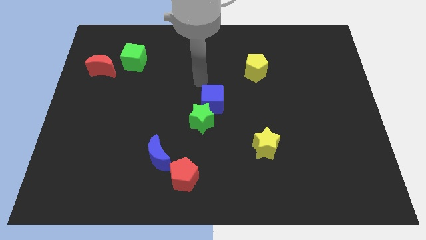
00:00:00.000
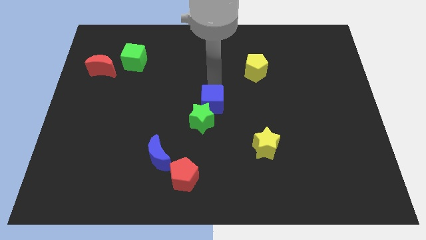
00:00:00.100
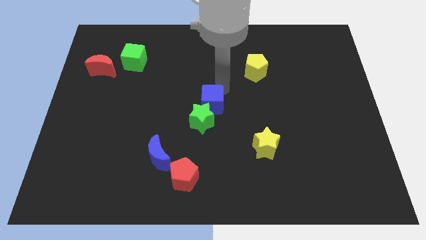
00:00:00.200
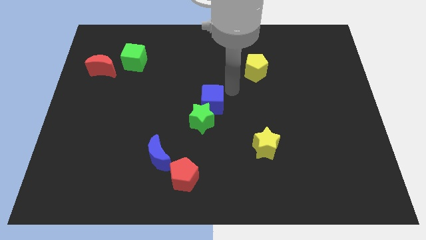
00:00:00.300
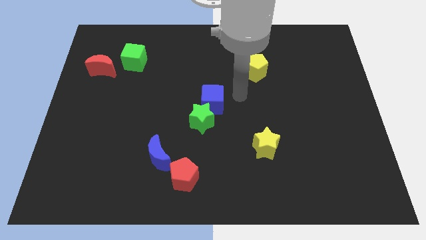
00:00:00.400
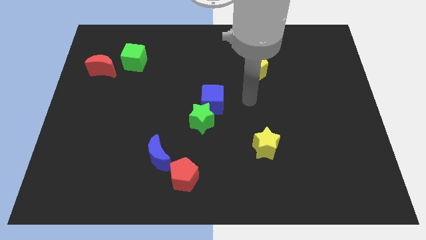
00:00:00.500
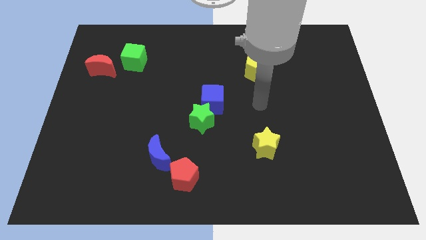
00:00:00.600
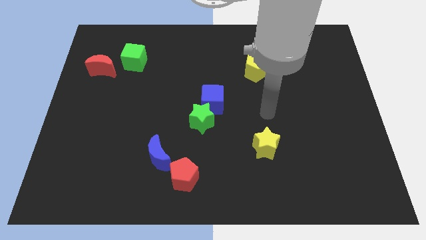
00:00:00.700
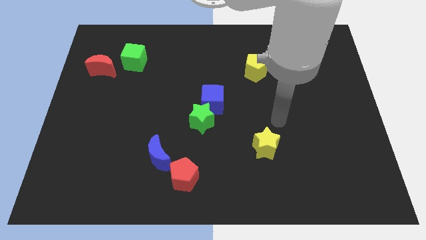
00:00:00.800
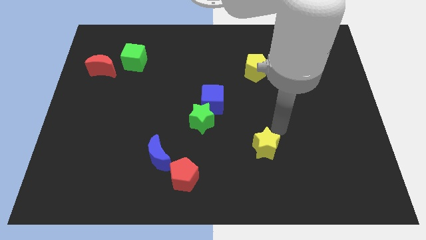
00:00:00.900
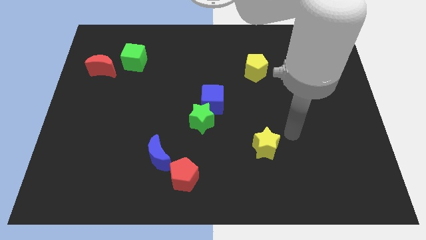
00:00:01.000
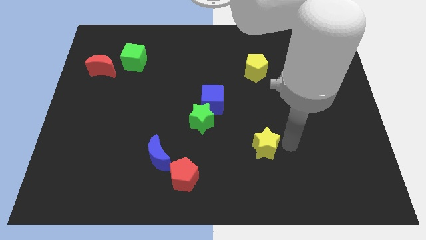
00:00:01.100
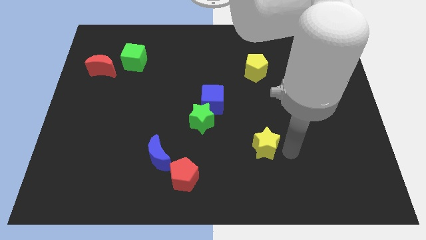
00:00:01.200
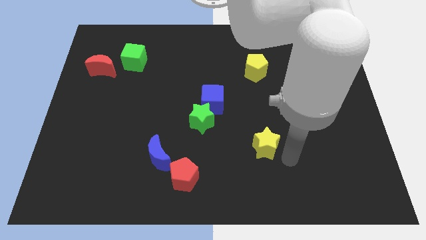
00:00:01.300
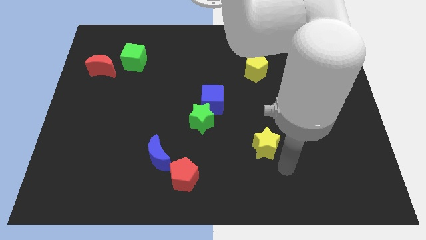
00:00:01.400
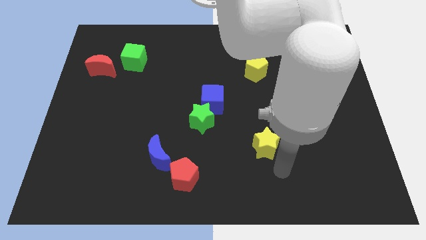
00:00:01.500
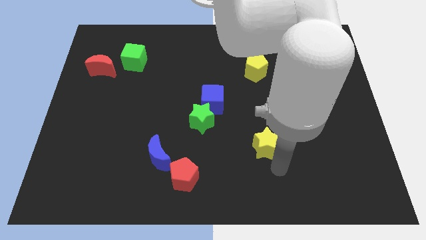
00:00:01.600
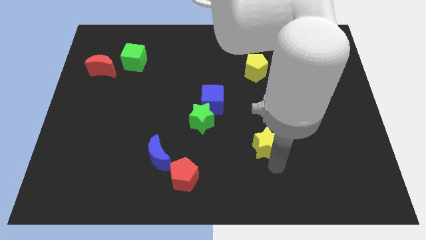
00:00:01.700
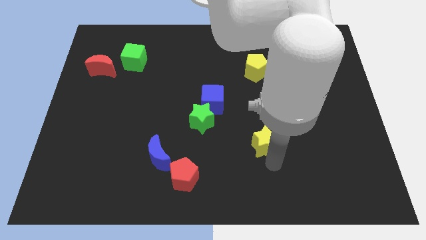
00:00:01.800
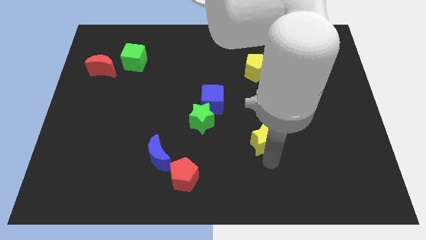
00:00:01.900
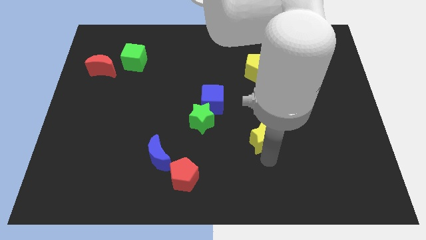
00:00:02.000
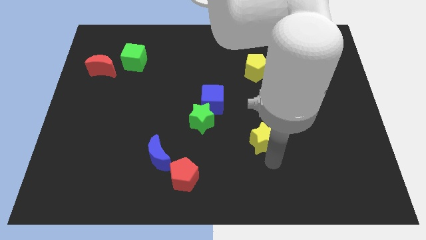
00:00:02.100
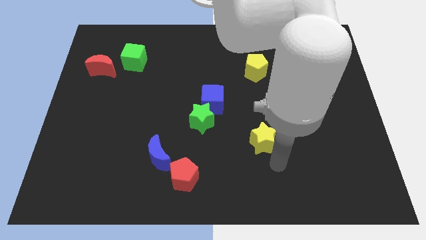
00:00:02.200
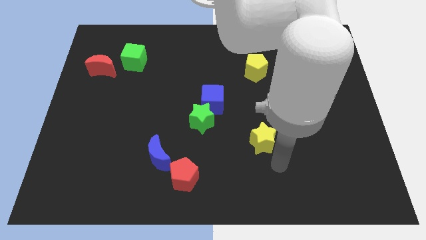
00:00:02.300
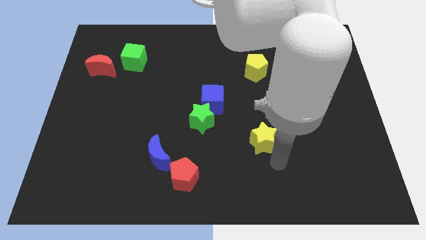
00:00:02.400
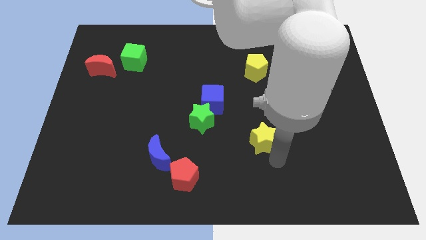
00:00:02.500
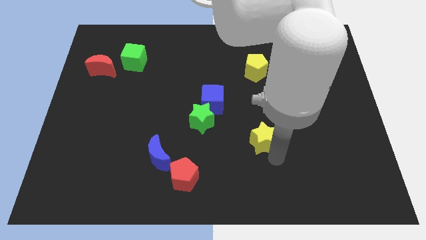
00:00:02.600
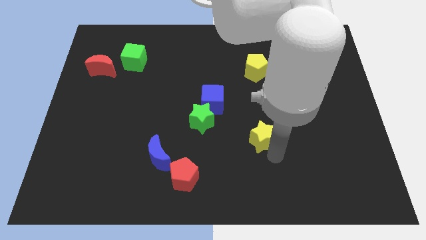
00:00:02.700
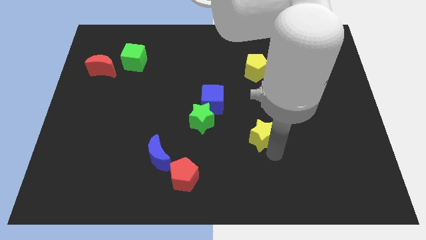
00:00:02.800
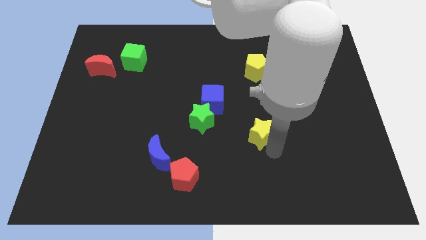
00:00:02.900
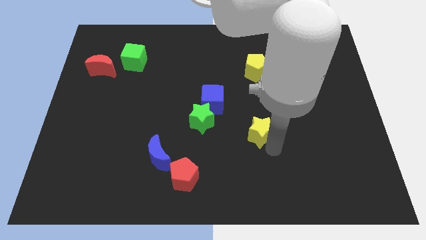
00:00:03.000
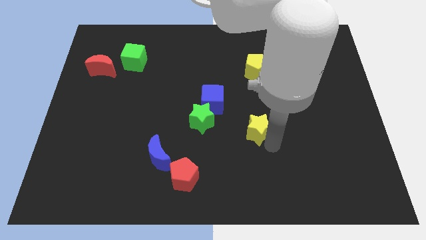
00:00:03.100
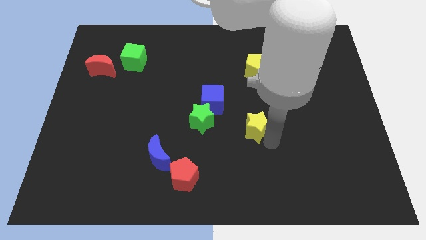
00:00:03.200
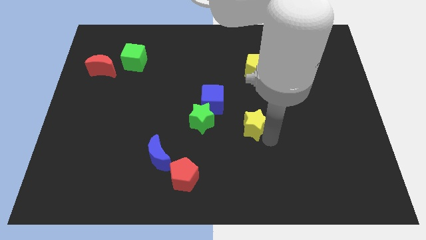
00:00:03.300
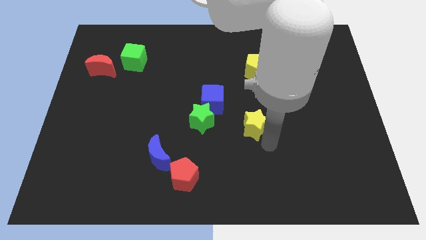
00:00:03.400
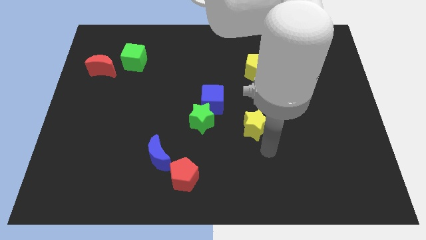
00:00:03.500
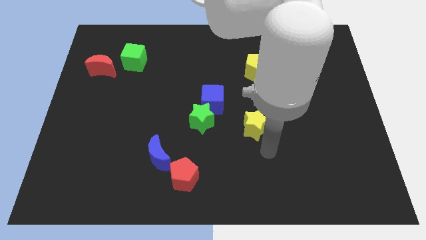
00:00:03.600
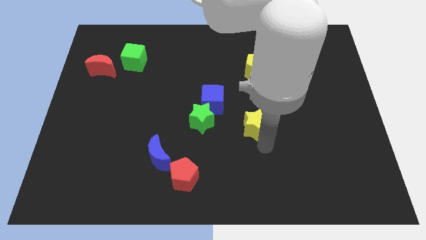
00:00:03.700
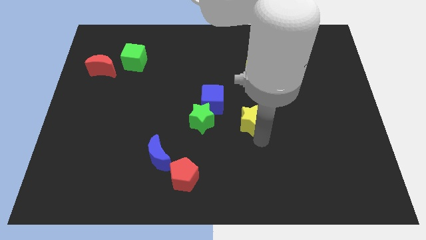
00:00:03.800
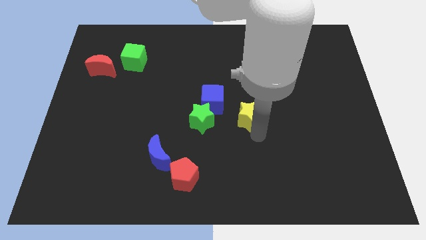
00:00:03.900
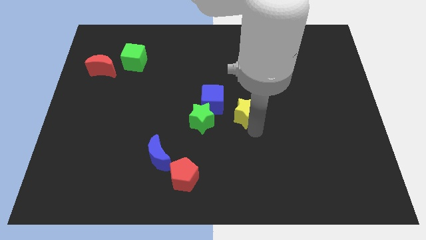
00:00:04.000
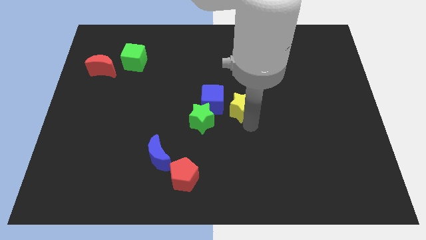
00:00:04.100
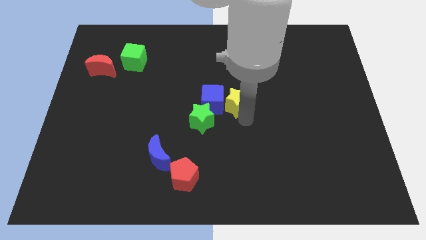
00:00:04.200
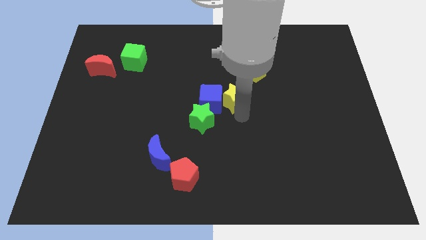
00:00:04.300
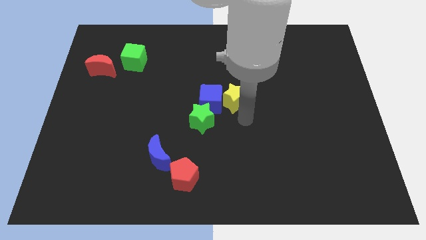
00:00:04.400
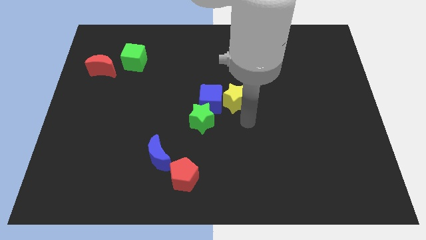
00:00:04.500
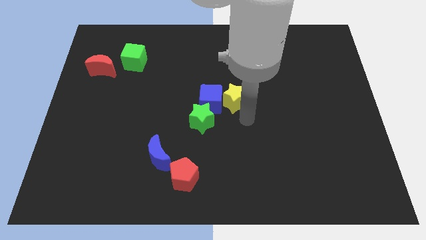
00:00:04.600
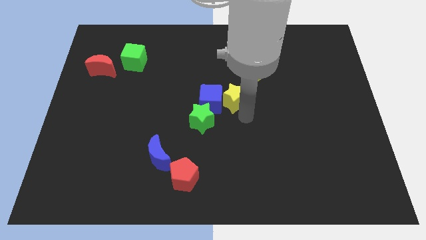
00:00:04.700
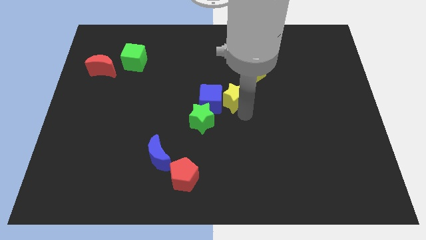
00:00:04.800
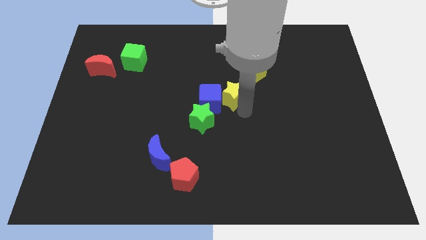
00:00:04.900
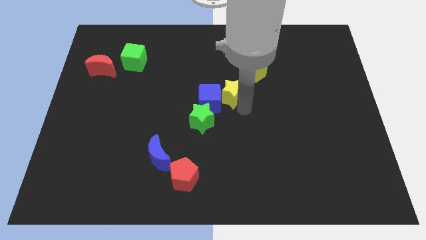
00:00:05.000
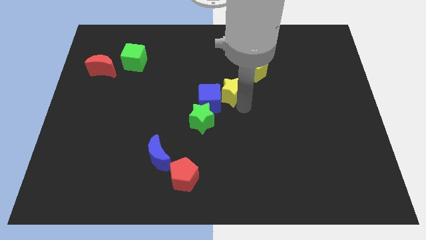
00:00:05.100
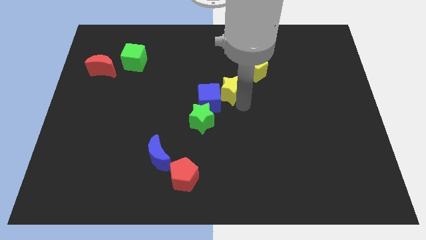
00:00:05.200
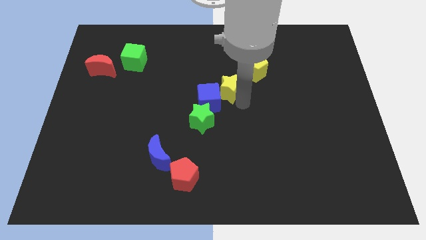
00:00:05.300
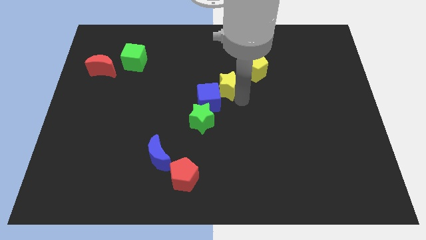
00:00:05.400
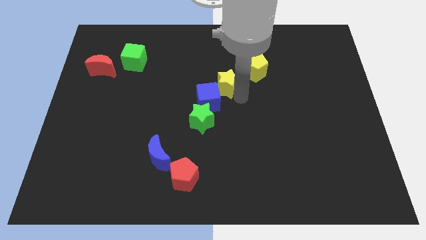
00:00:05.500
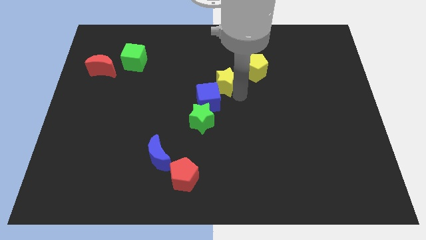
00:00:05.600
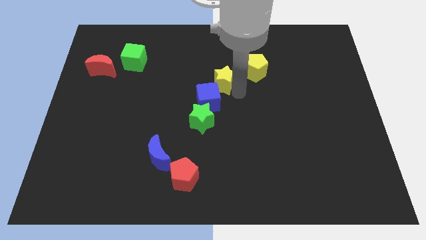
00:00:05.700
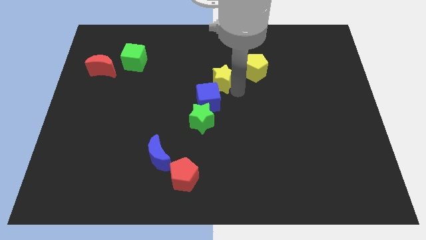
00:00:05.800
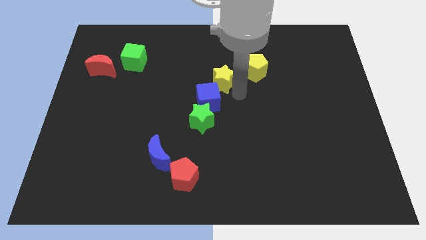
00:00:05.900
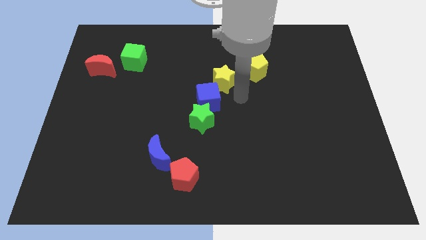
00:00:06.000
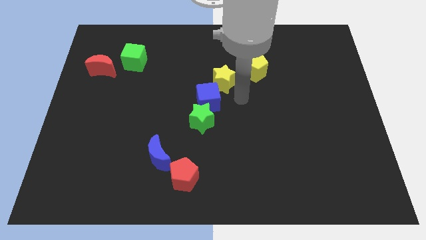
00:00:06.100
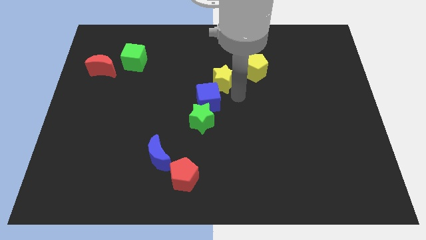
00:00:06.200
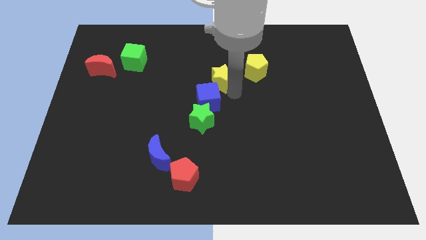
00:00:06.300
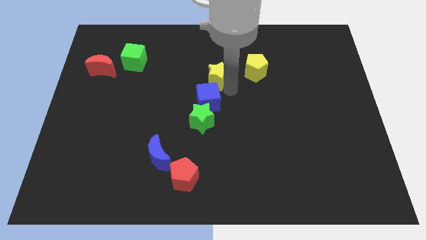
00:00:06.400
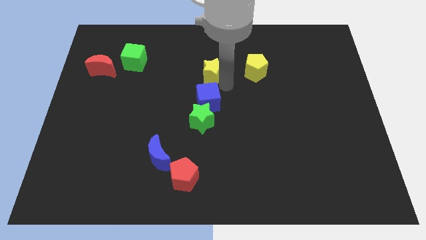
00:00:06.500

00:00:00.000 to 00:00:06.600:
slide the yellow star upwards and to the left

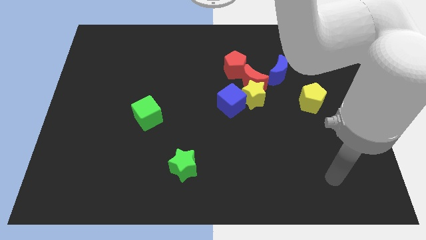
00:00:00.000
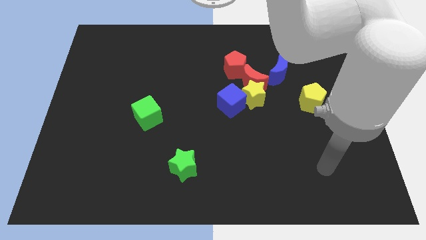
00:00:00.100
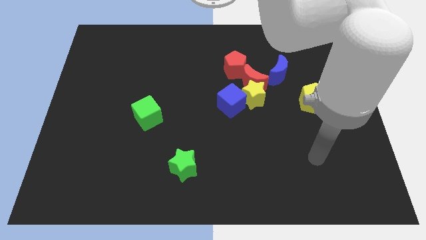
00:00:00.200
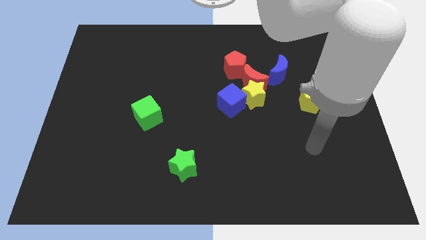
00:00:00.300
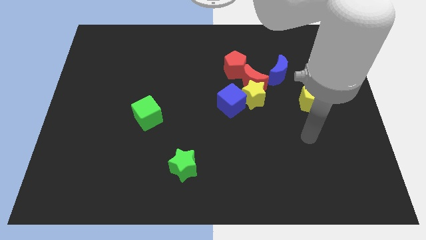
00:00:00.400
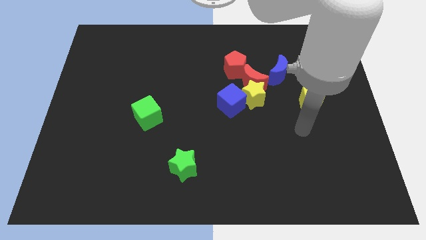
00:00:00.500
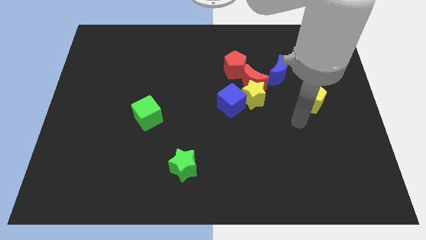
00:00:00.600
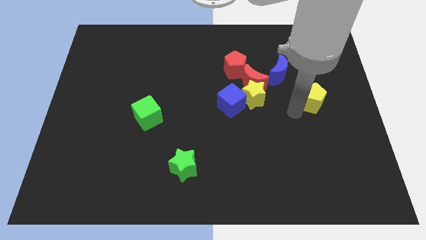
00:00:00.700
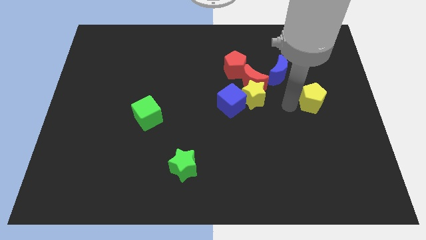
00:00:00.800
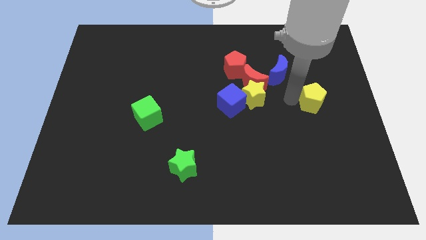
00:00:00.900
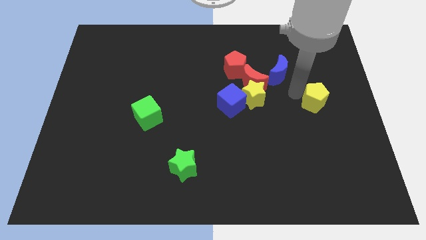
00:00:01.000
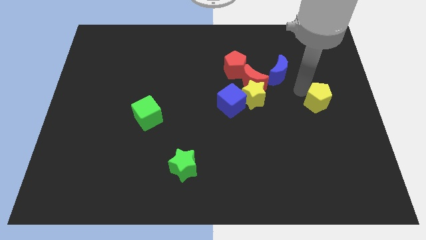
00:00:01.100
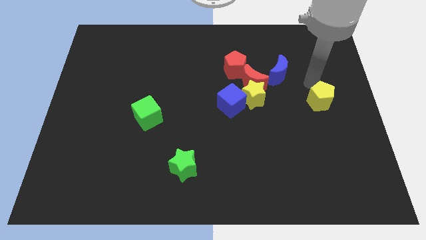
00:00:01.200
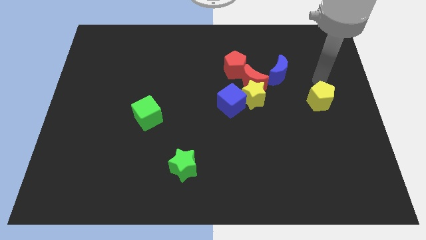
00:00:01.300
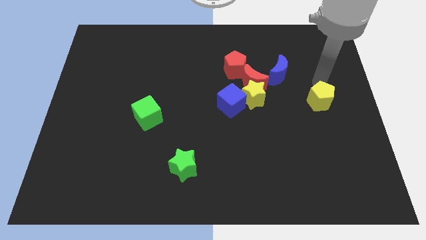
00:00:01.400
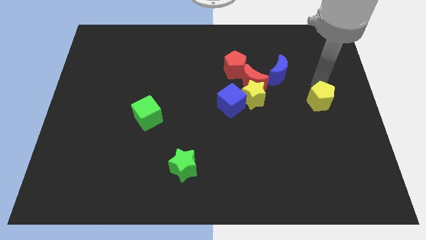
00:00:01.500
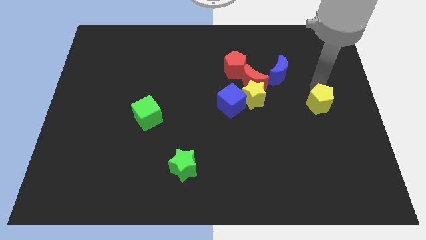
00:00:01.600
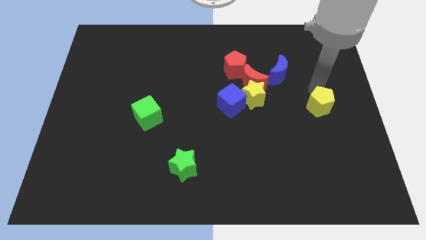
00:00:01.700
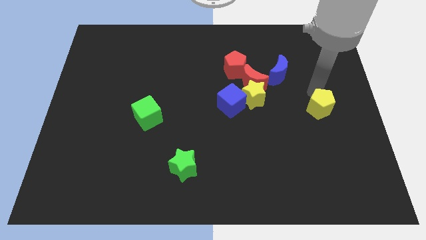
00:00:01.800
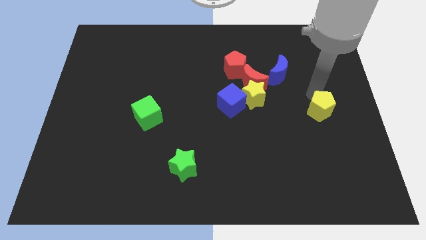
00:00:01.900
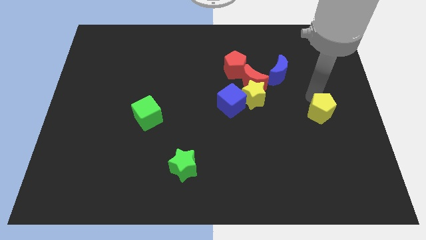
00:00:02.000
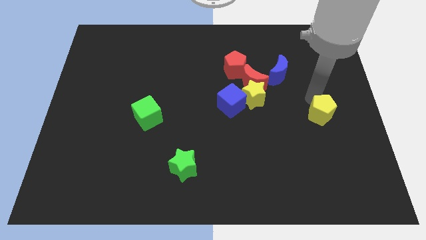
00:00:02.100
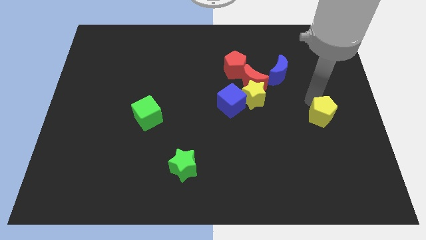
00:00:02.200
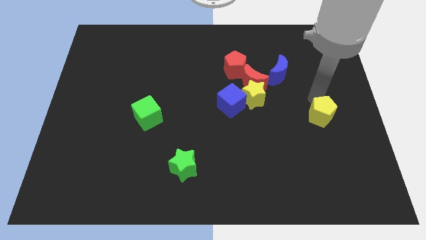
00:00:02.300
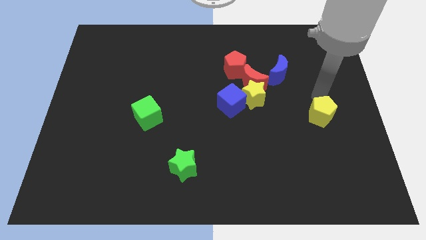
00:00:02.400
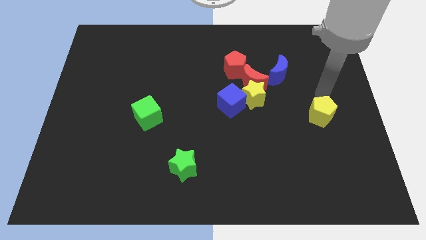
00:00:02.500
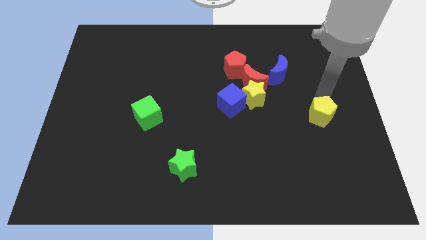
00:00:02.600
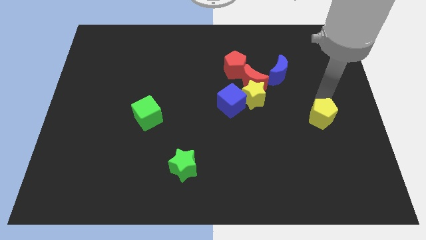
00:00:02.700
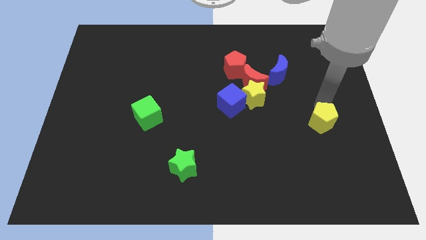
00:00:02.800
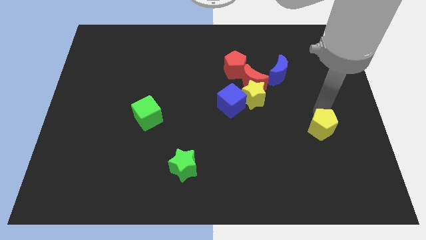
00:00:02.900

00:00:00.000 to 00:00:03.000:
slide the yellow pentagon slightly downwards
